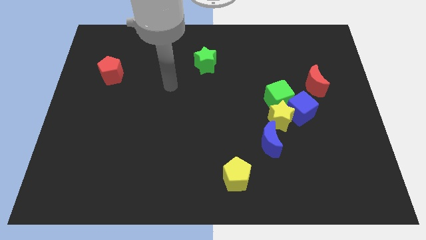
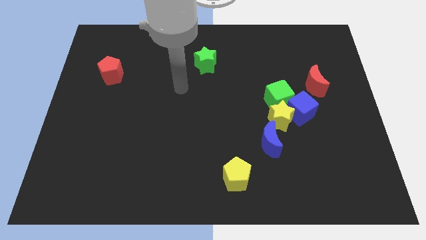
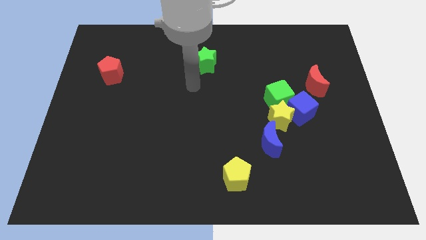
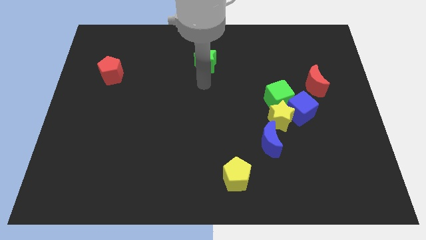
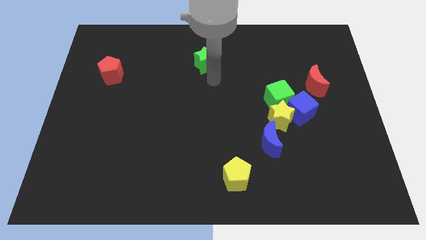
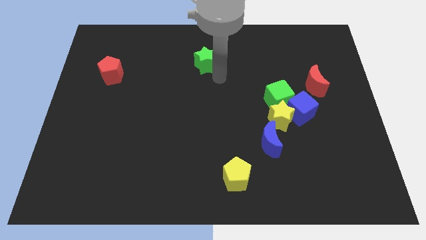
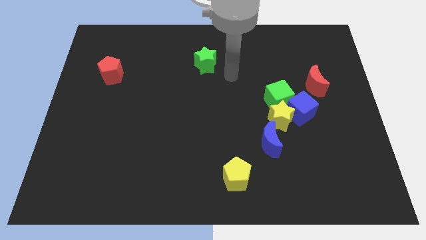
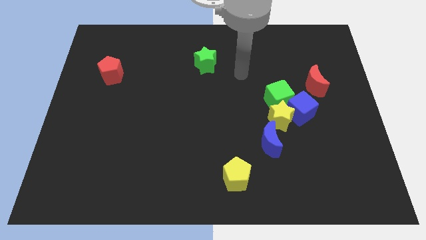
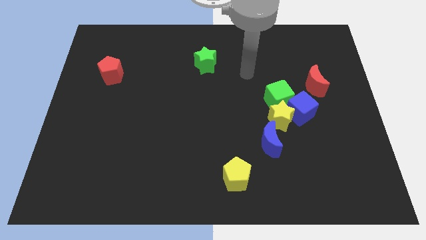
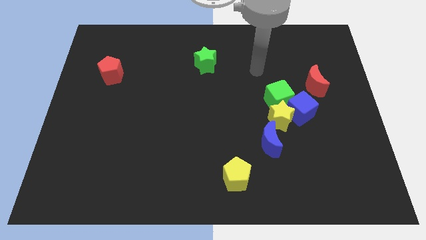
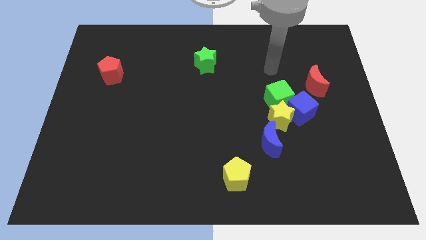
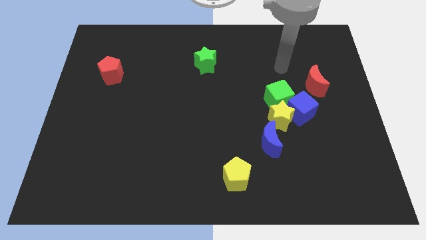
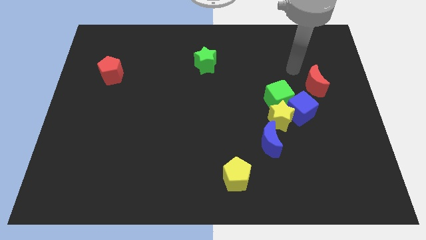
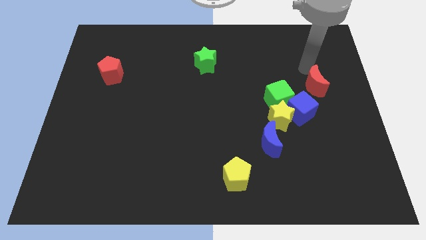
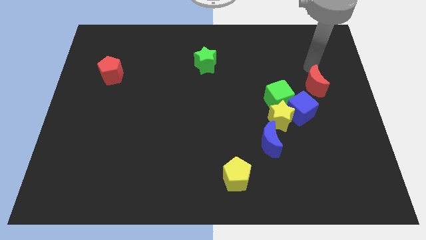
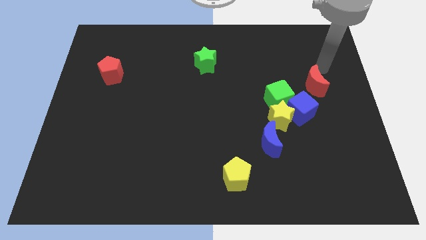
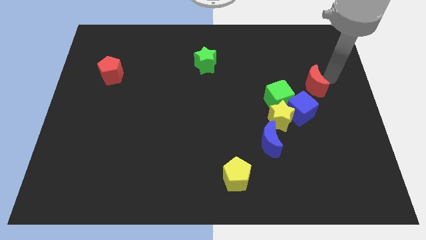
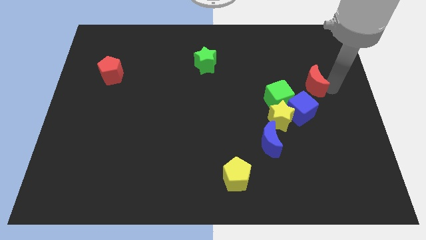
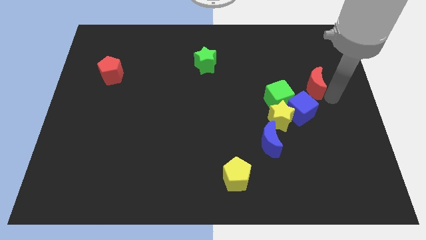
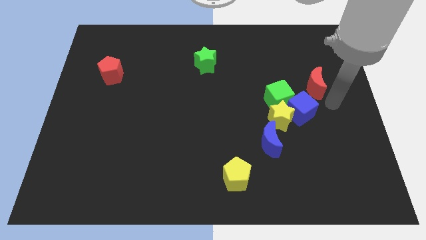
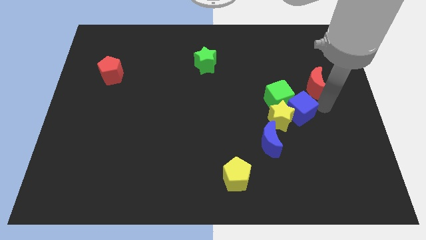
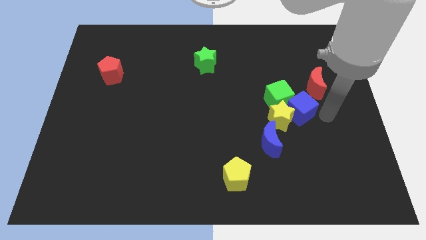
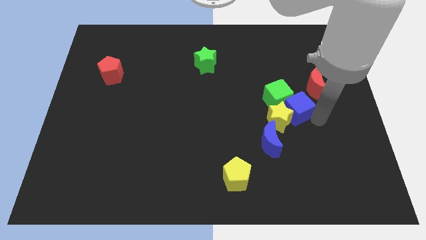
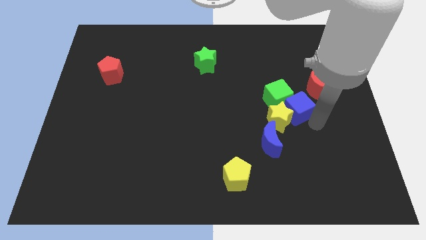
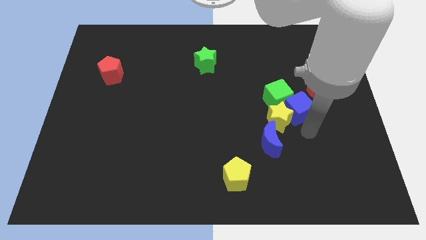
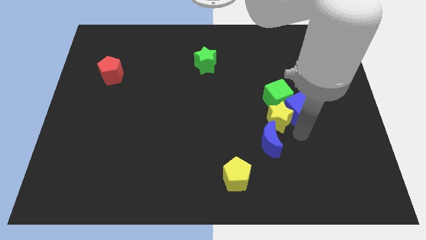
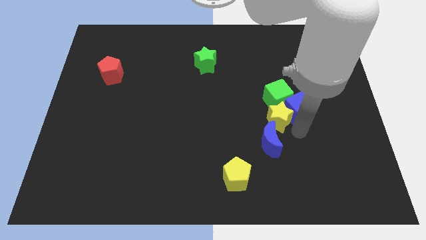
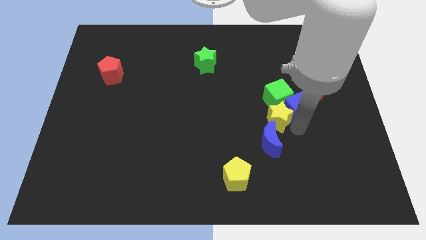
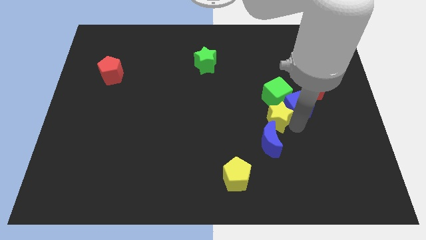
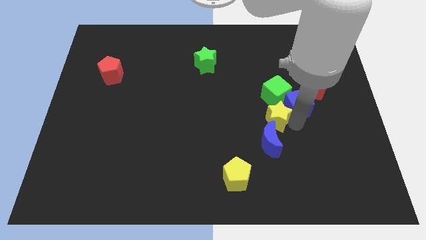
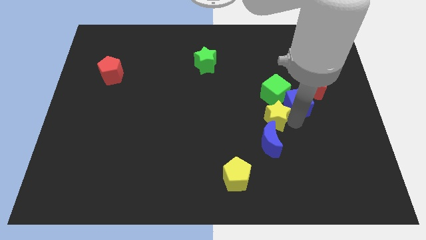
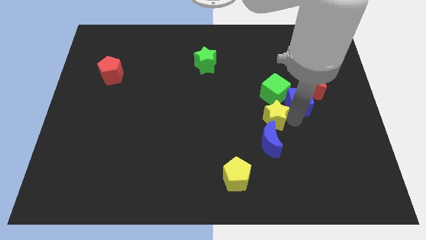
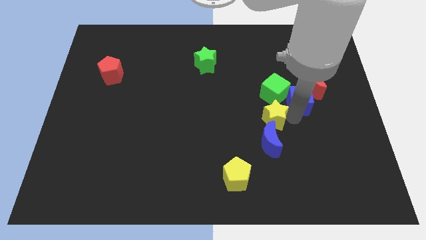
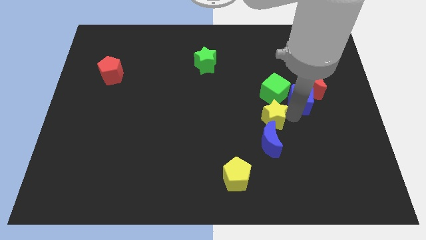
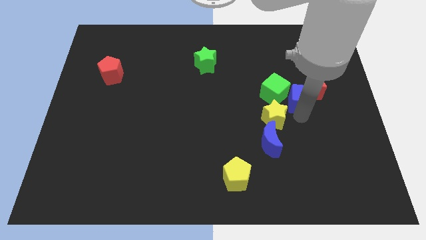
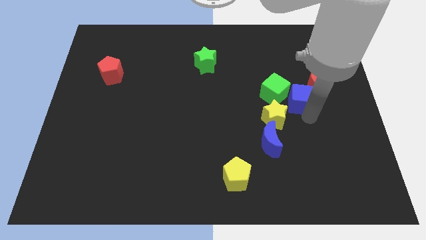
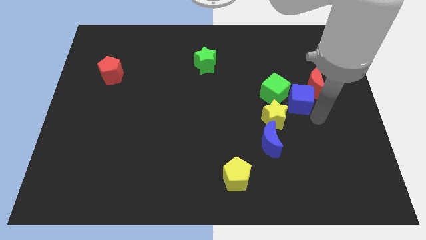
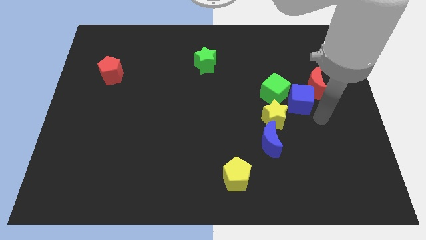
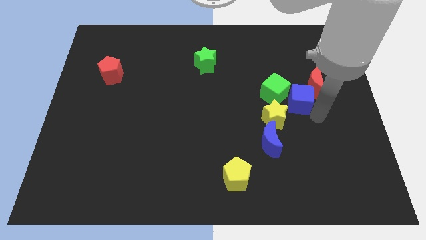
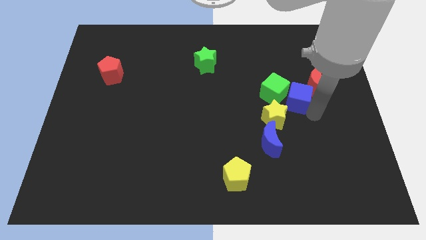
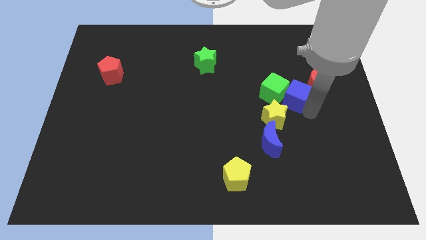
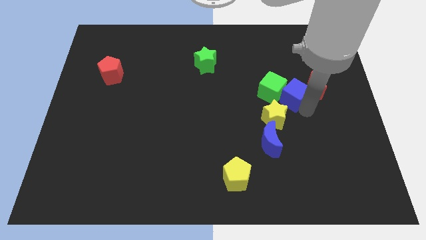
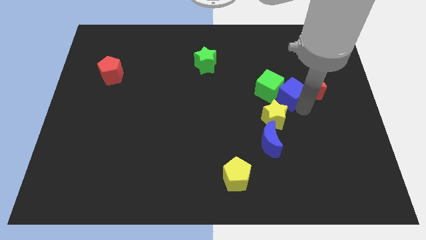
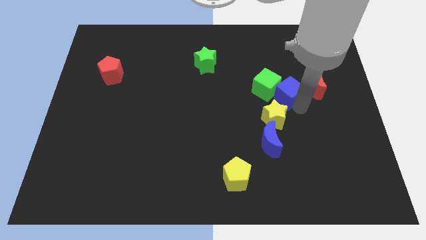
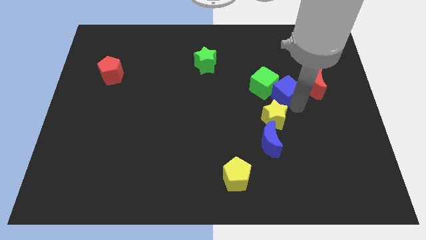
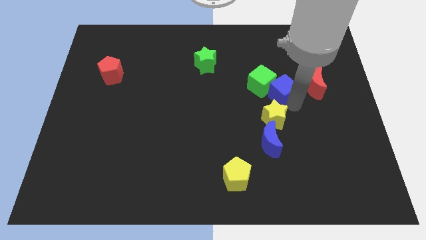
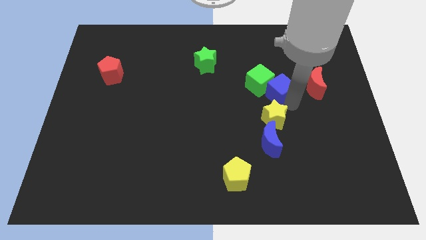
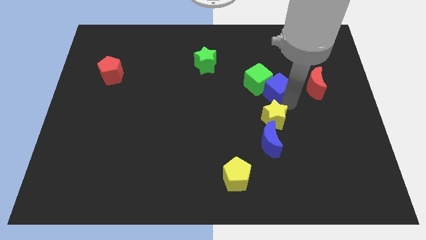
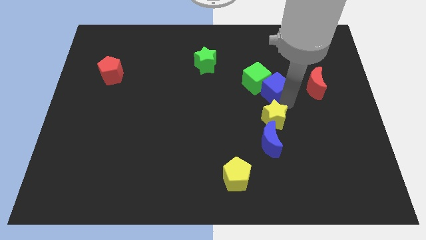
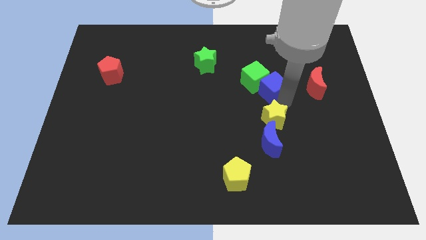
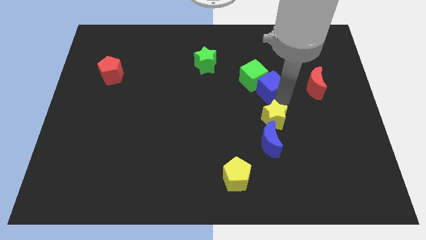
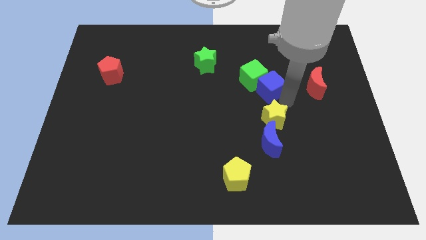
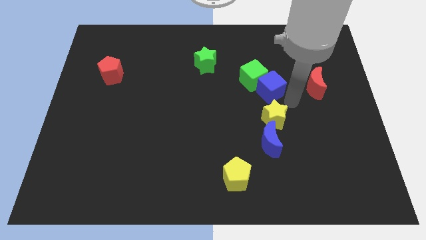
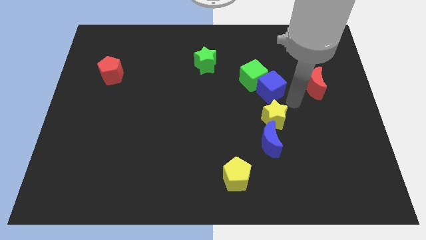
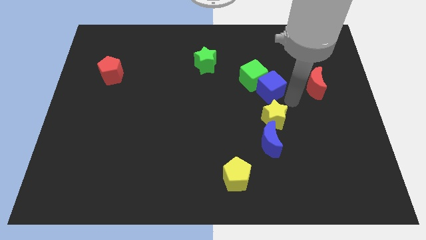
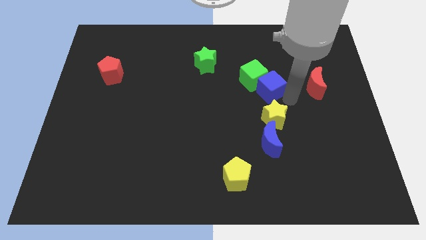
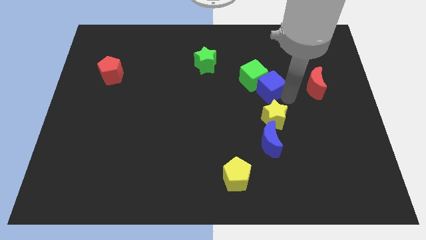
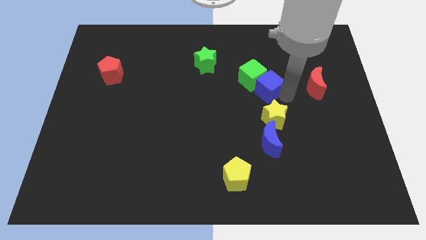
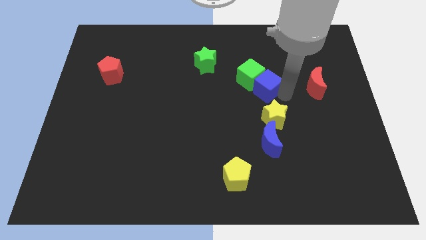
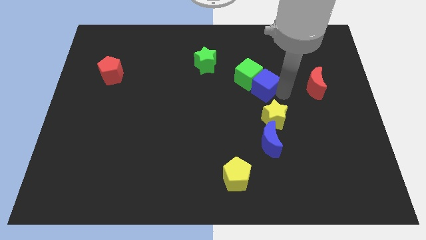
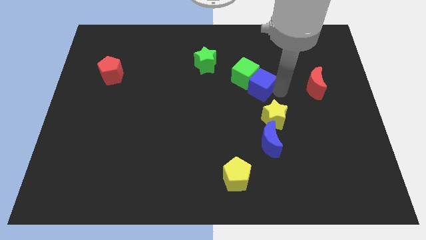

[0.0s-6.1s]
slide the blue cube to the middle

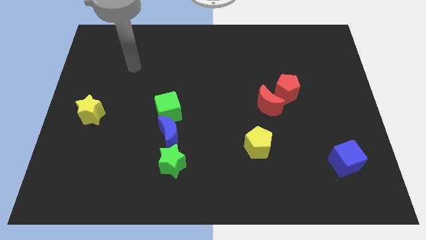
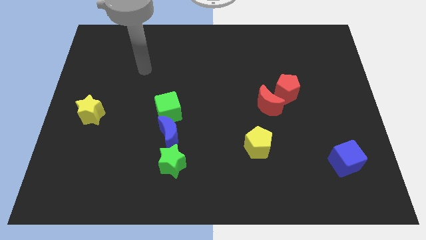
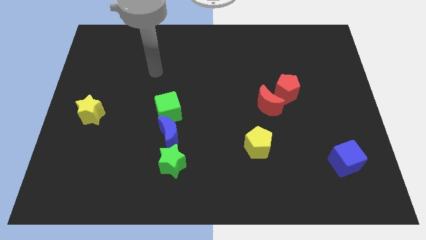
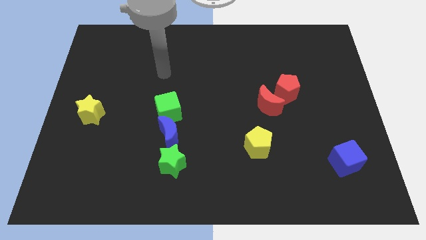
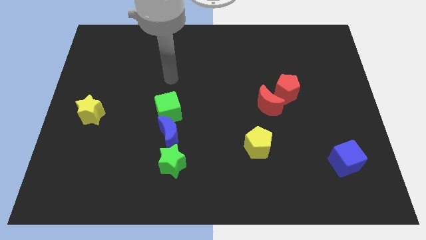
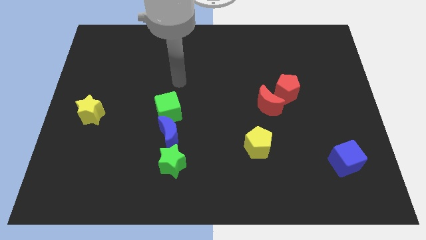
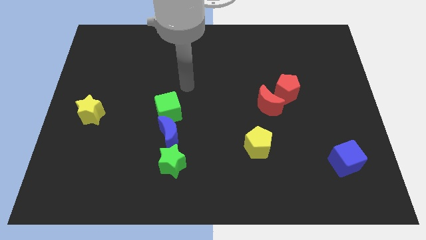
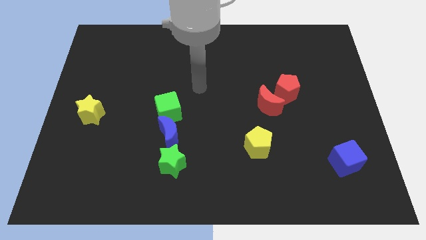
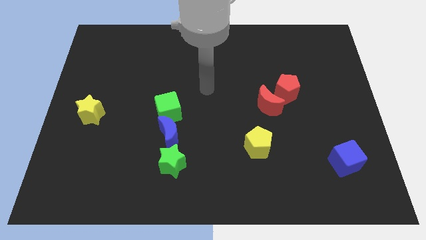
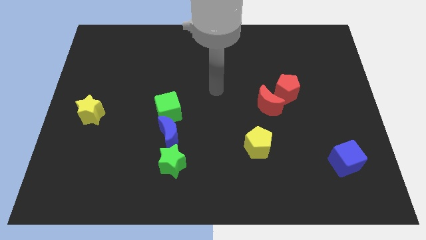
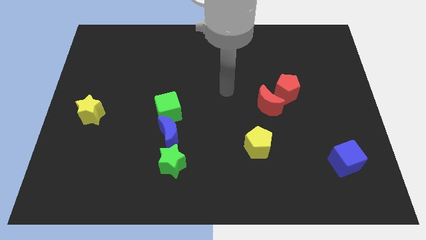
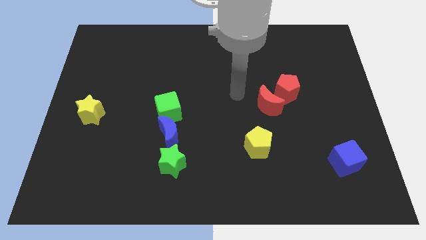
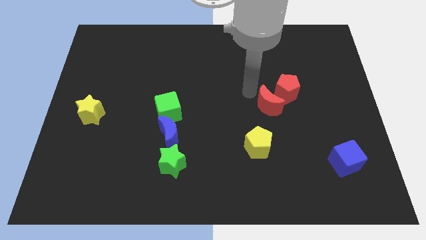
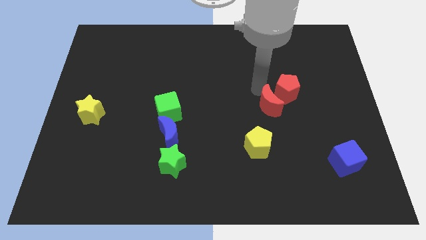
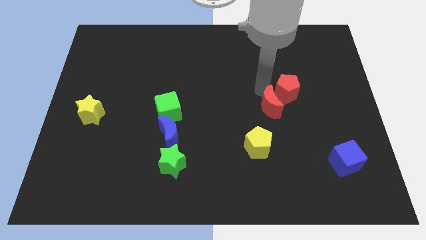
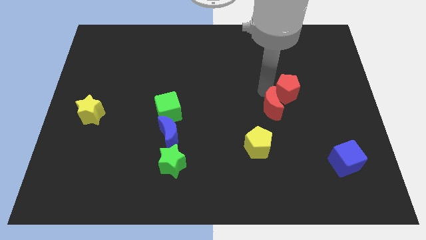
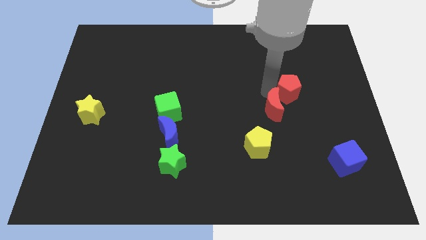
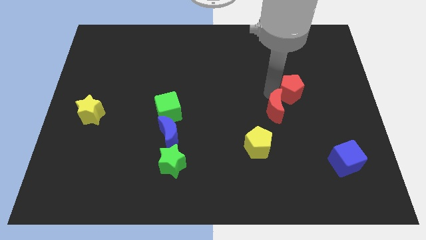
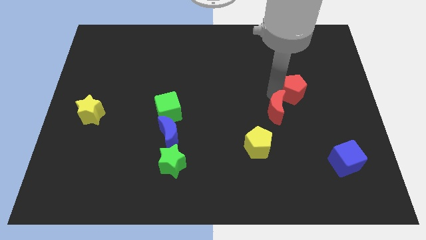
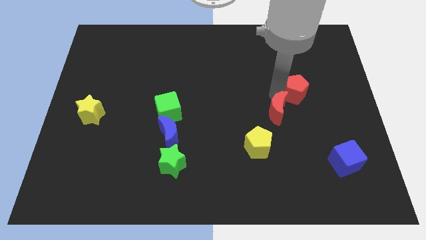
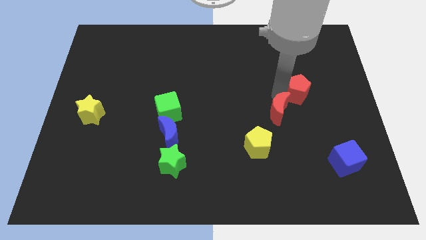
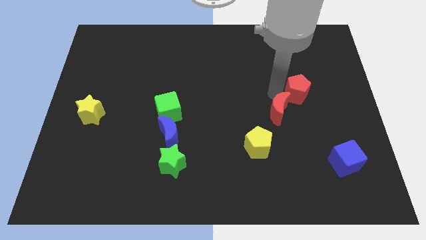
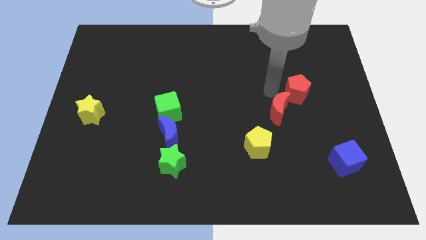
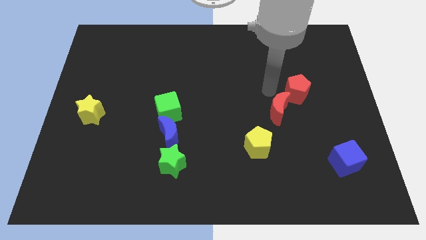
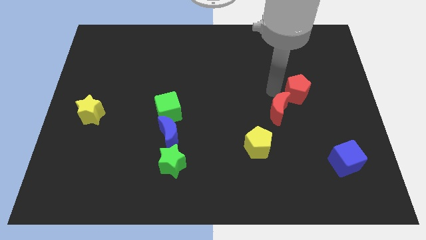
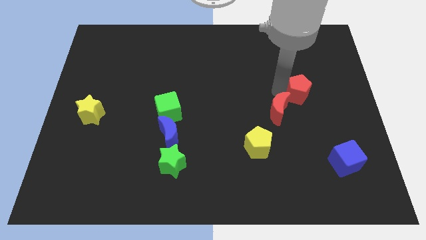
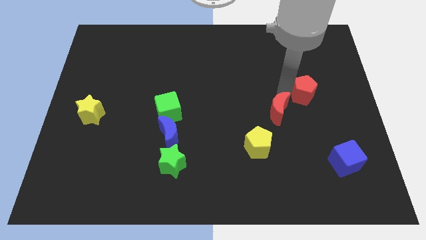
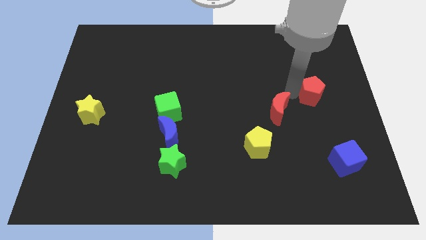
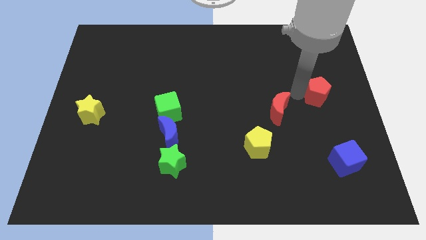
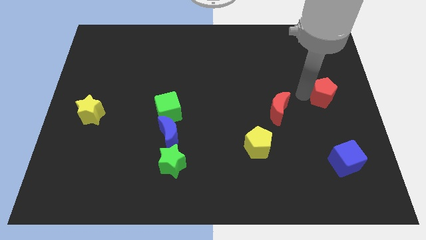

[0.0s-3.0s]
move the red pentagon to the right side
